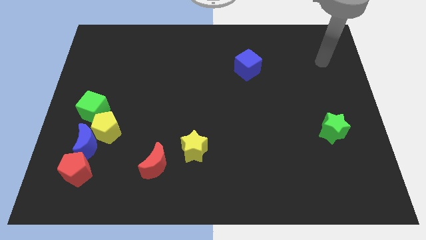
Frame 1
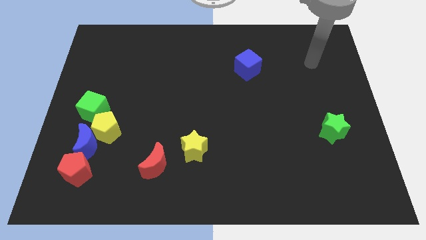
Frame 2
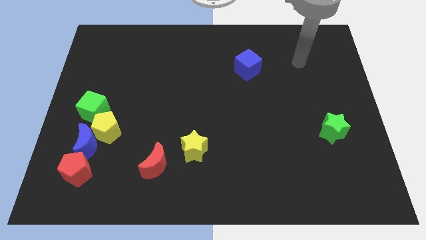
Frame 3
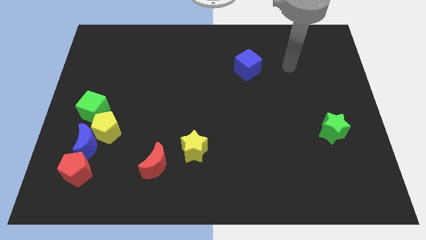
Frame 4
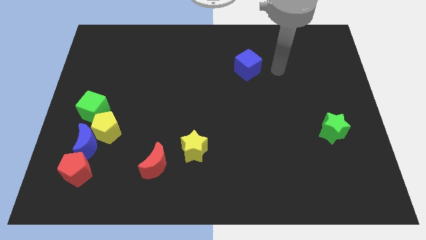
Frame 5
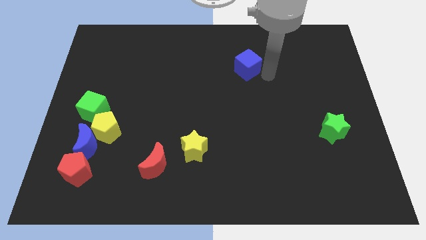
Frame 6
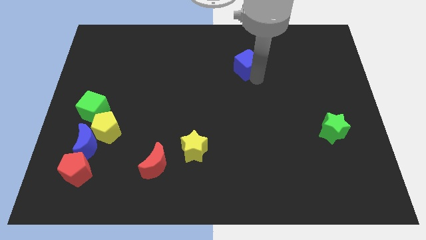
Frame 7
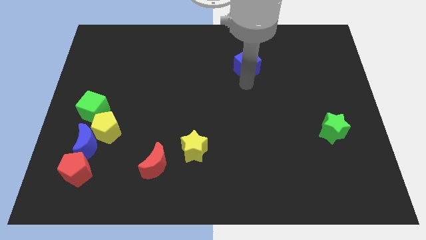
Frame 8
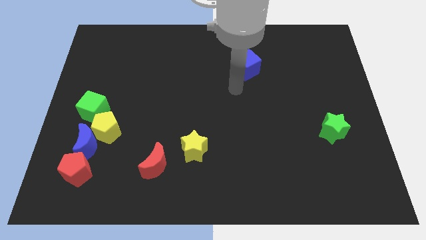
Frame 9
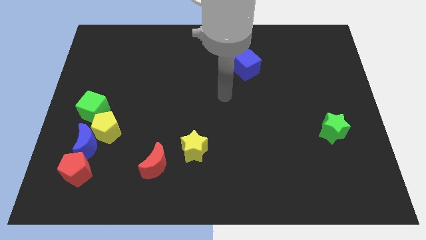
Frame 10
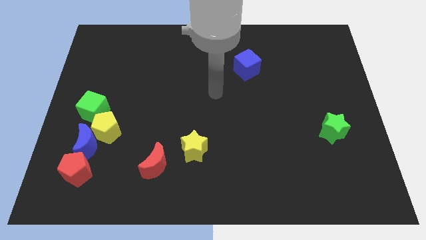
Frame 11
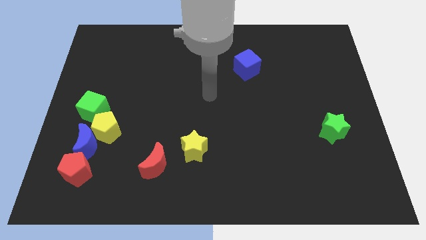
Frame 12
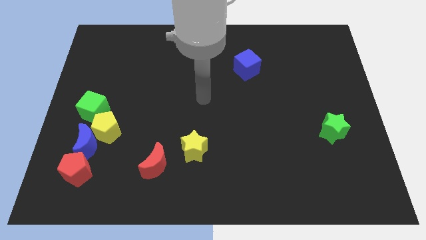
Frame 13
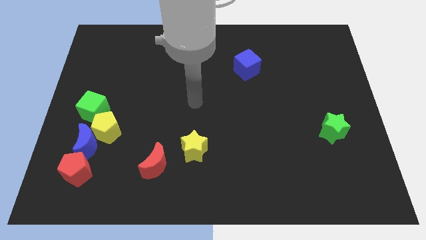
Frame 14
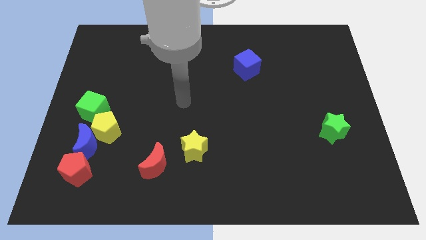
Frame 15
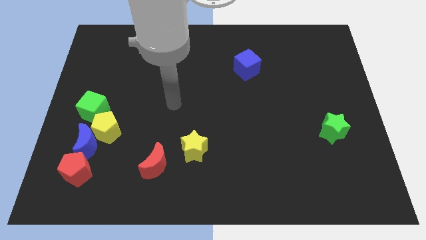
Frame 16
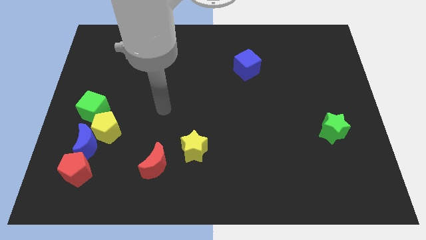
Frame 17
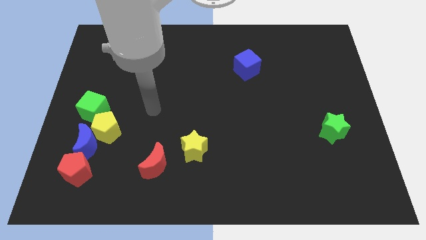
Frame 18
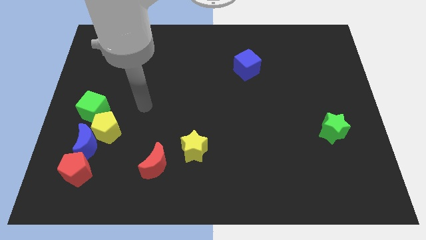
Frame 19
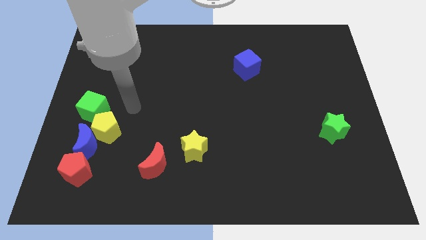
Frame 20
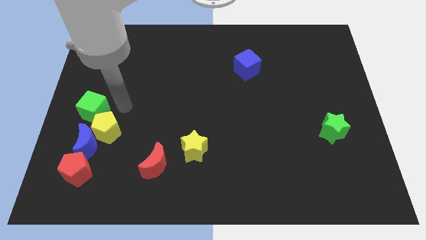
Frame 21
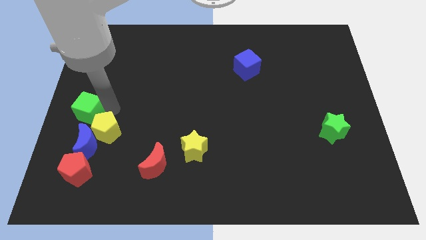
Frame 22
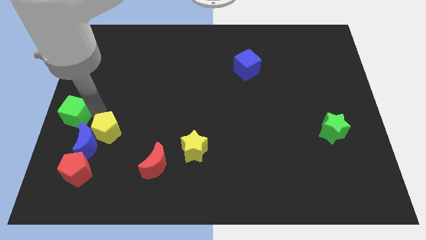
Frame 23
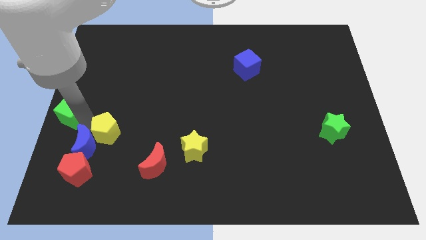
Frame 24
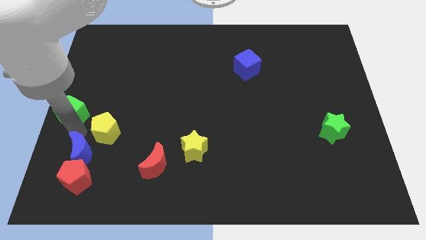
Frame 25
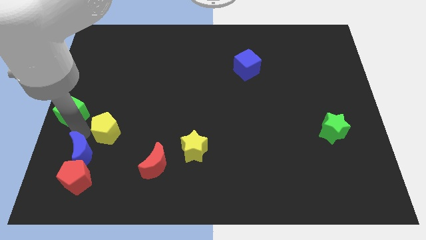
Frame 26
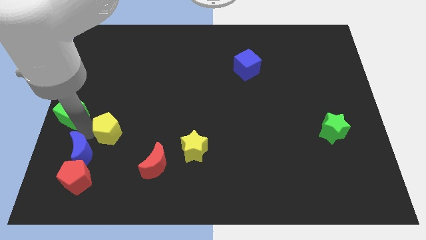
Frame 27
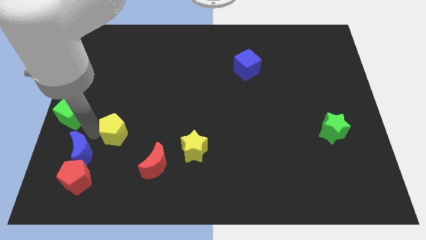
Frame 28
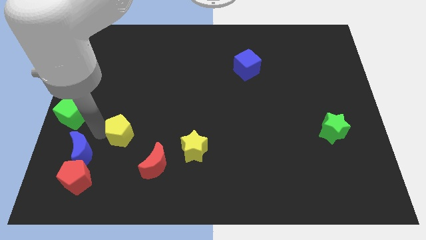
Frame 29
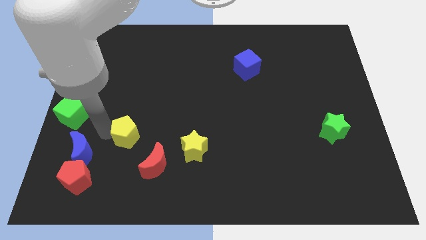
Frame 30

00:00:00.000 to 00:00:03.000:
move the yellow pentagon away from the blue moon and green cube

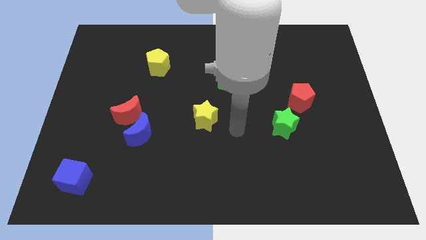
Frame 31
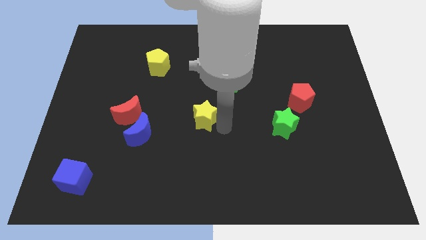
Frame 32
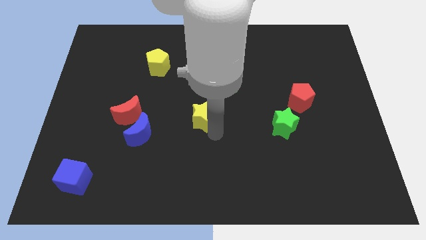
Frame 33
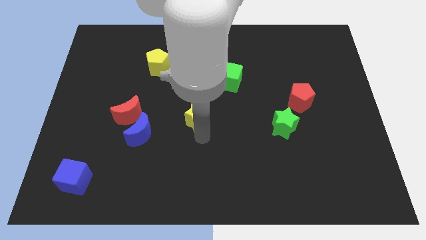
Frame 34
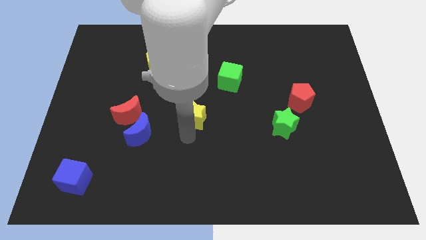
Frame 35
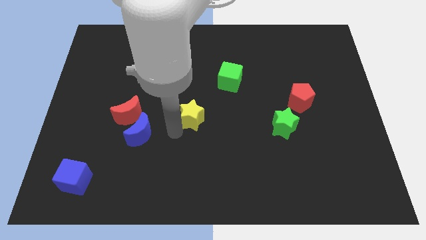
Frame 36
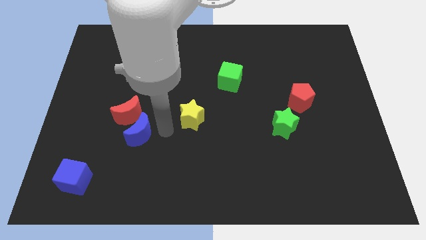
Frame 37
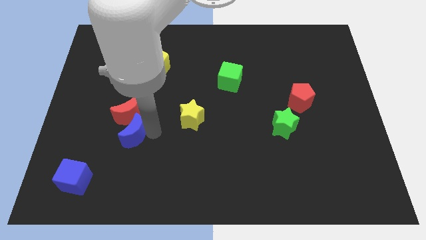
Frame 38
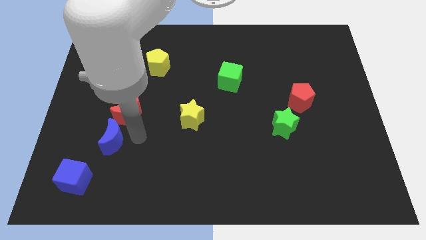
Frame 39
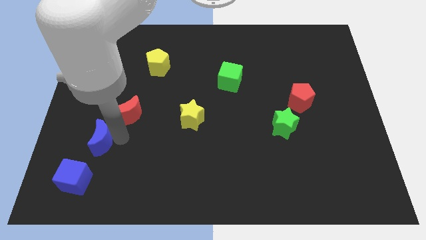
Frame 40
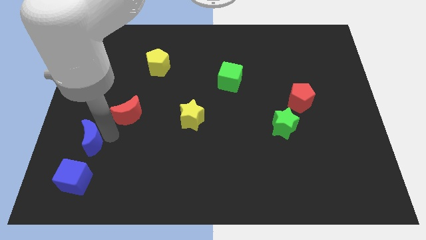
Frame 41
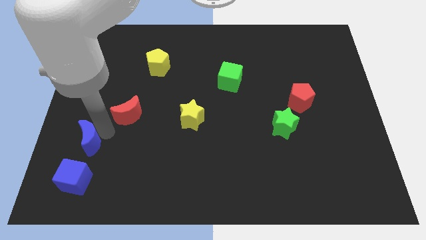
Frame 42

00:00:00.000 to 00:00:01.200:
separate the red moon from the blue moon

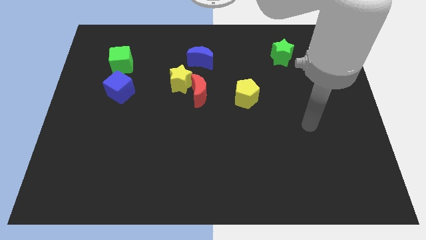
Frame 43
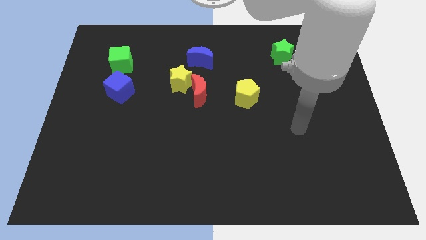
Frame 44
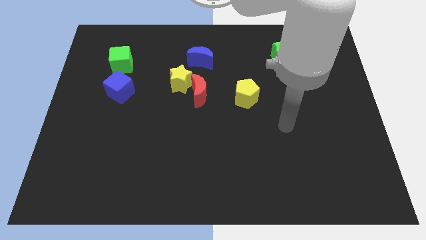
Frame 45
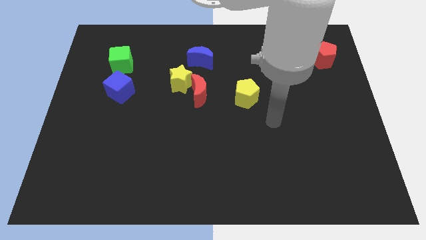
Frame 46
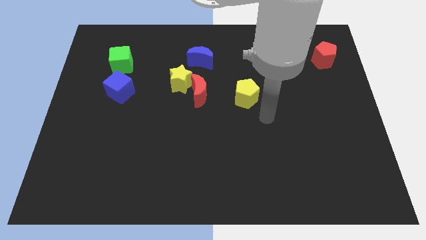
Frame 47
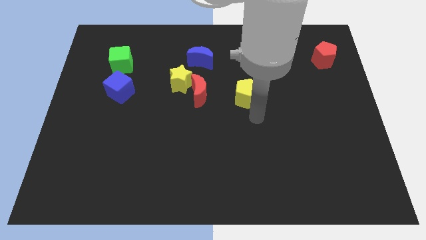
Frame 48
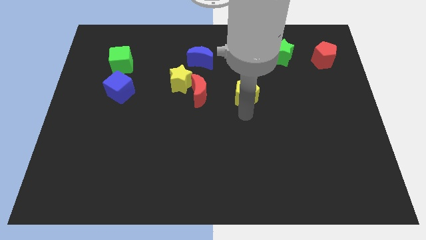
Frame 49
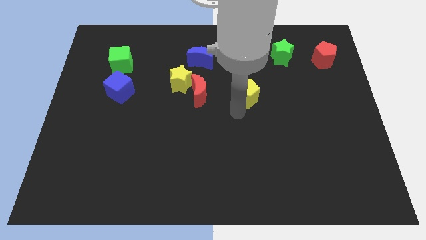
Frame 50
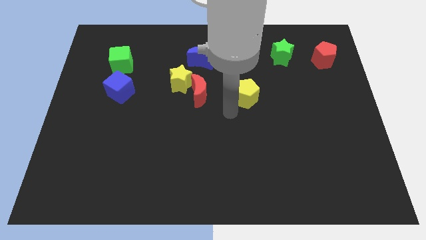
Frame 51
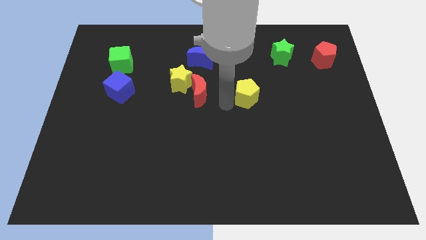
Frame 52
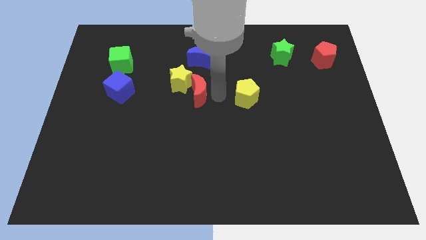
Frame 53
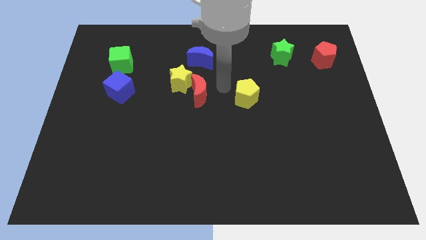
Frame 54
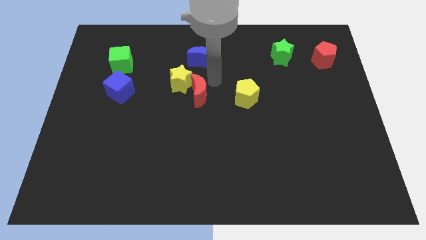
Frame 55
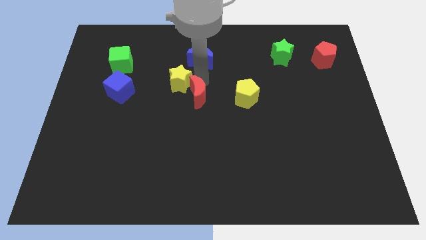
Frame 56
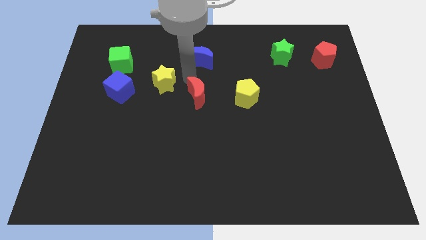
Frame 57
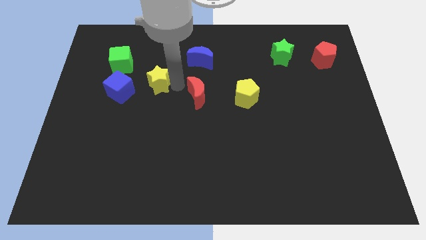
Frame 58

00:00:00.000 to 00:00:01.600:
separate the red moon from the yellow star

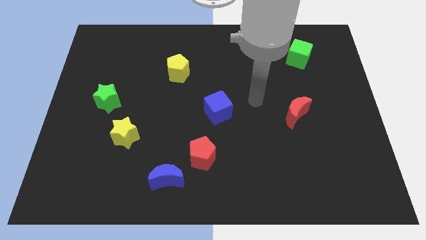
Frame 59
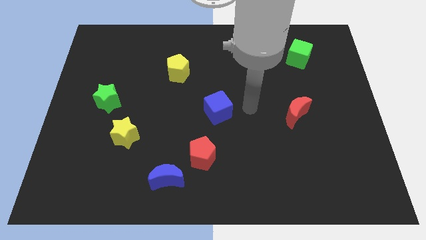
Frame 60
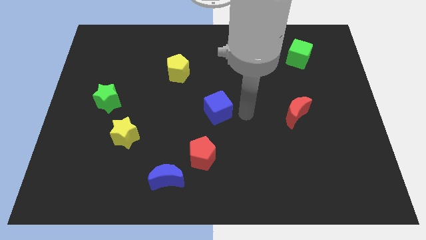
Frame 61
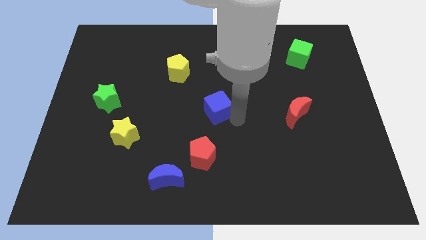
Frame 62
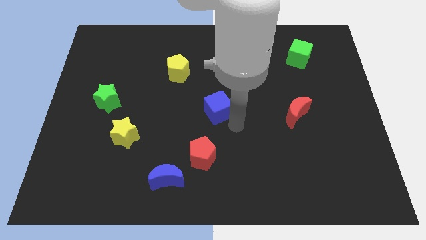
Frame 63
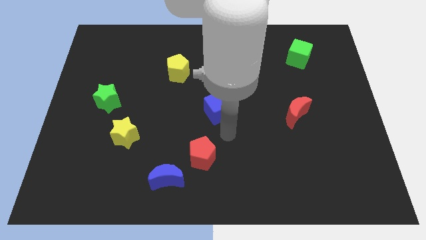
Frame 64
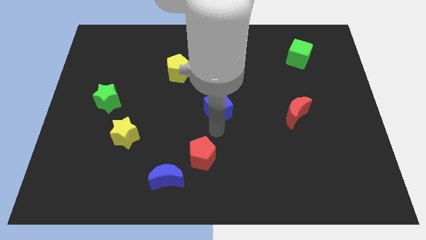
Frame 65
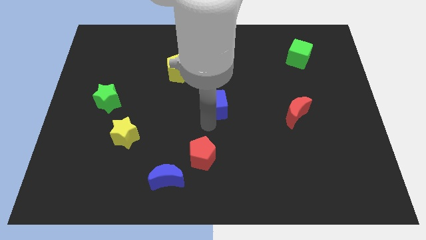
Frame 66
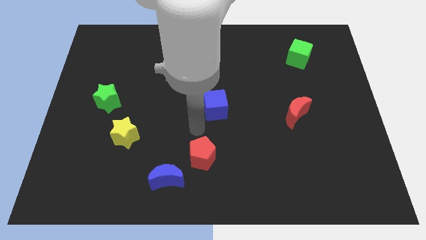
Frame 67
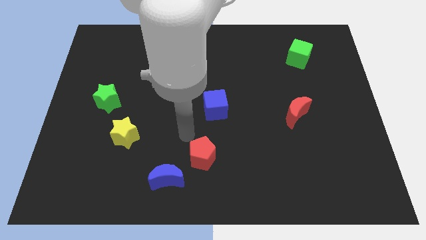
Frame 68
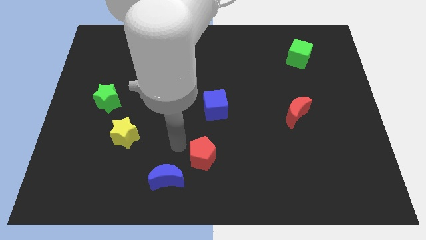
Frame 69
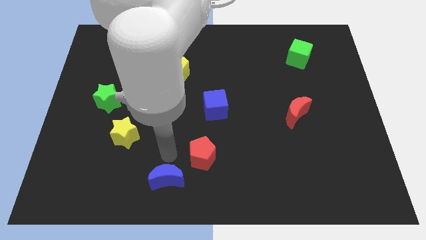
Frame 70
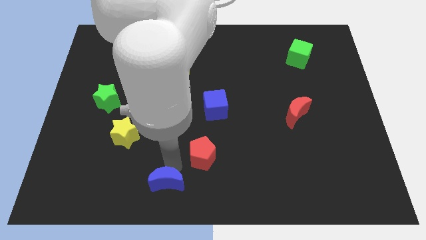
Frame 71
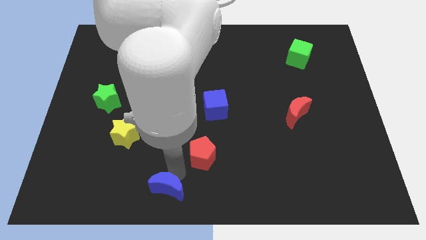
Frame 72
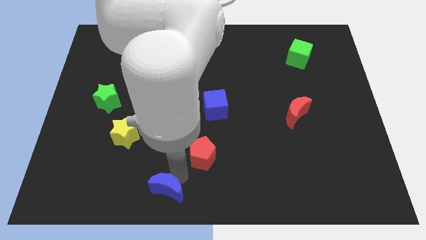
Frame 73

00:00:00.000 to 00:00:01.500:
move the red pentagon away from the blue moon

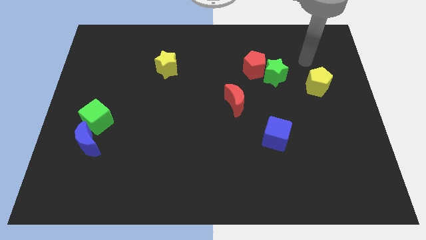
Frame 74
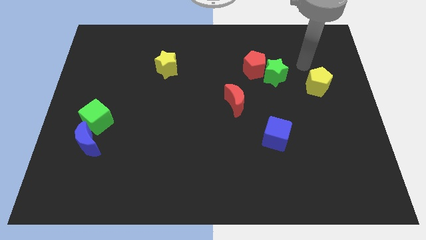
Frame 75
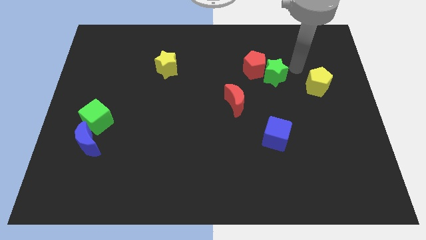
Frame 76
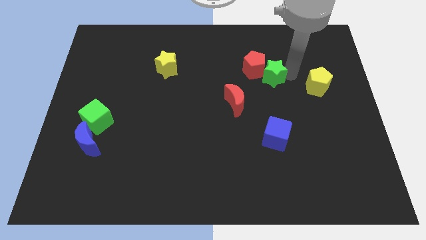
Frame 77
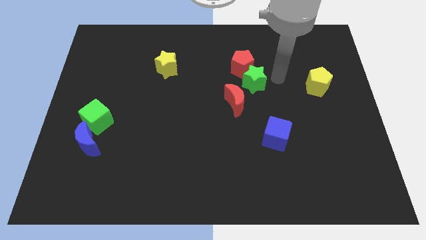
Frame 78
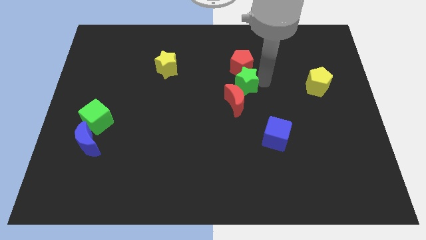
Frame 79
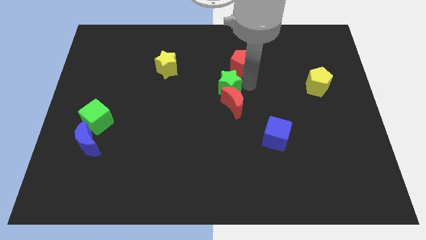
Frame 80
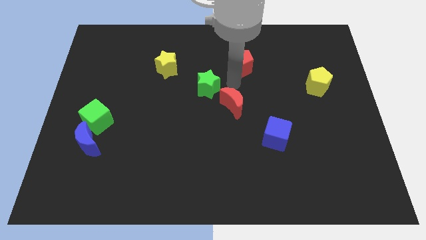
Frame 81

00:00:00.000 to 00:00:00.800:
separate the red pentagon from the green star

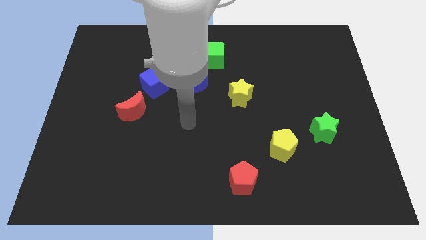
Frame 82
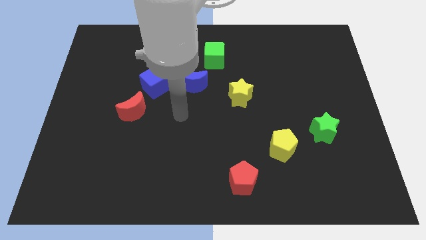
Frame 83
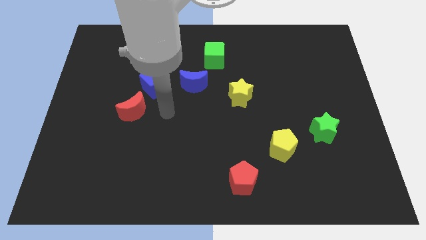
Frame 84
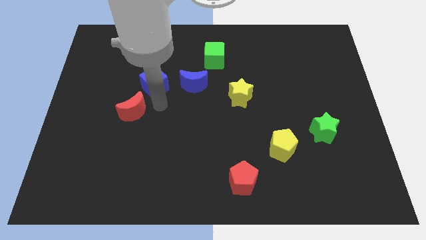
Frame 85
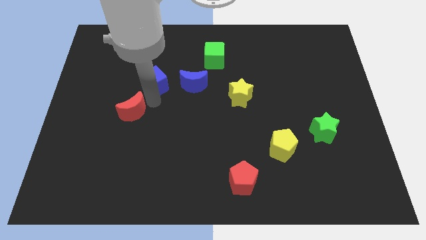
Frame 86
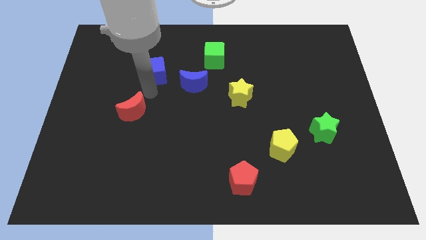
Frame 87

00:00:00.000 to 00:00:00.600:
separate the red moon from the blue cube

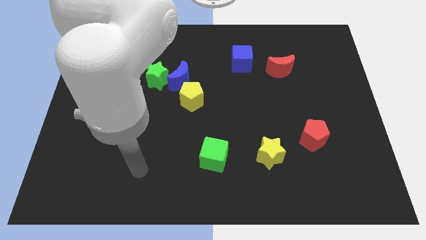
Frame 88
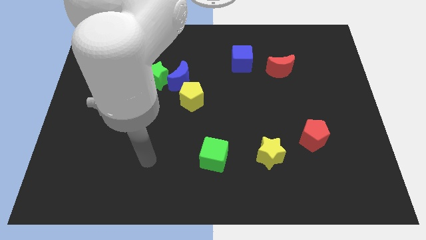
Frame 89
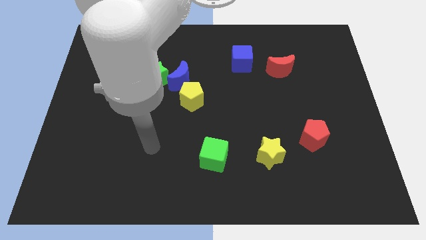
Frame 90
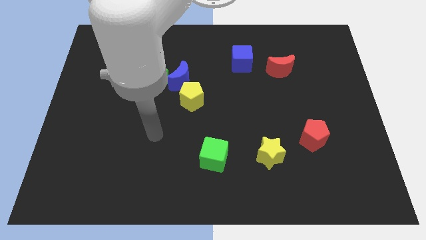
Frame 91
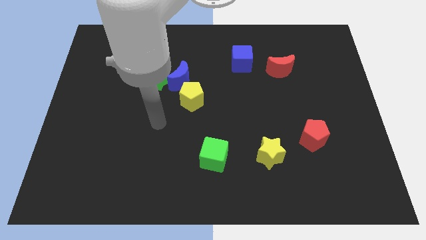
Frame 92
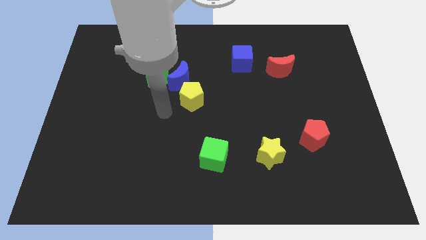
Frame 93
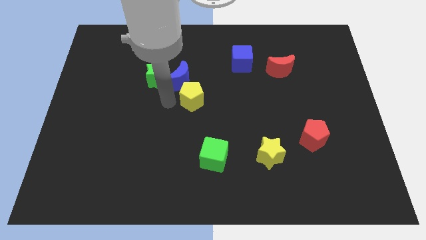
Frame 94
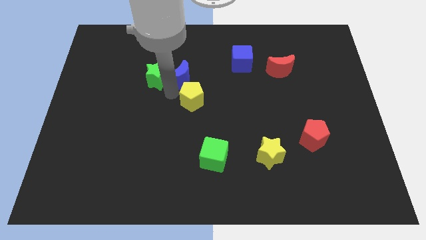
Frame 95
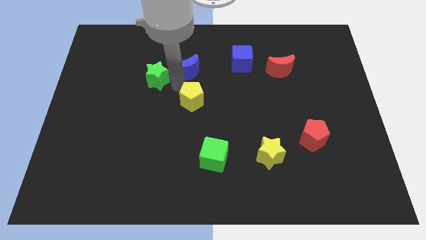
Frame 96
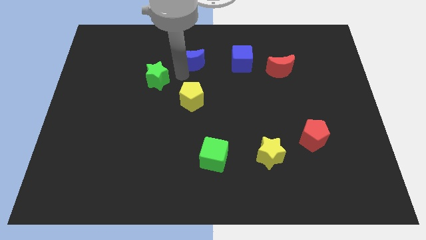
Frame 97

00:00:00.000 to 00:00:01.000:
move the green star away from the blue moon
